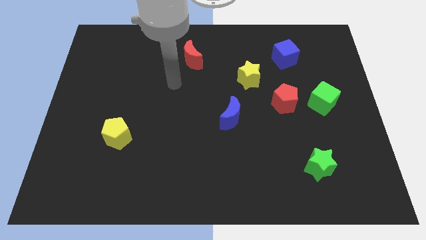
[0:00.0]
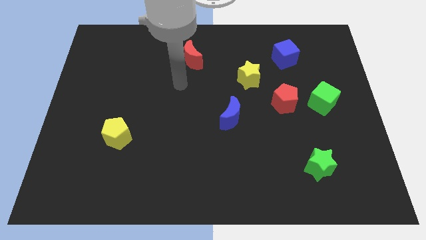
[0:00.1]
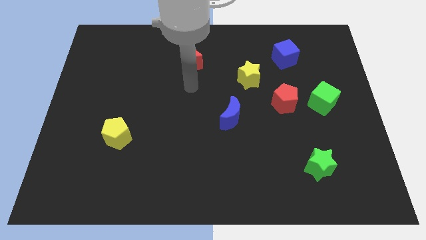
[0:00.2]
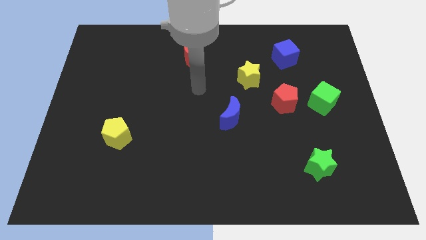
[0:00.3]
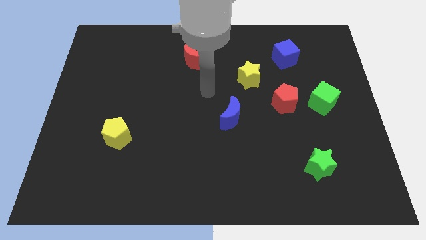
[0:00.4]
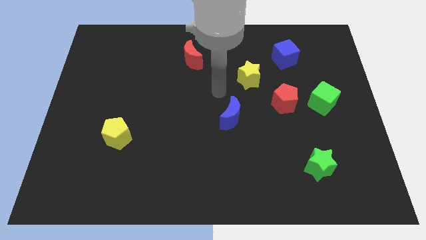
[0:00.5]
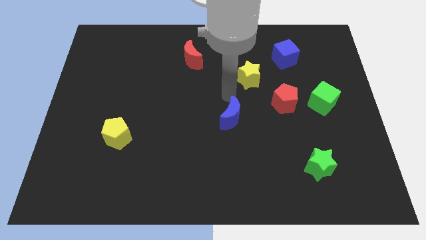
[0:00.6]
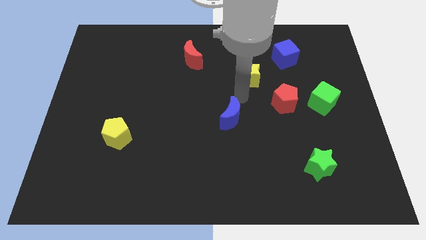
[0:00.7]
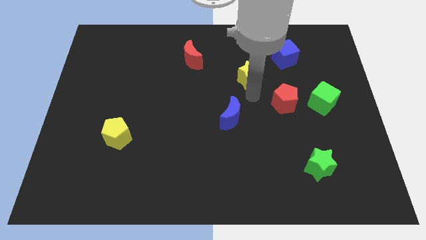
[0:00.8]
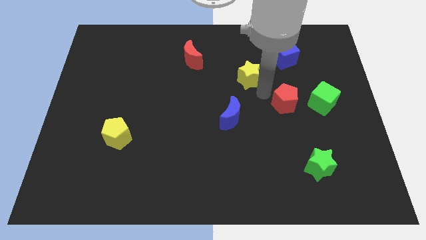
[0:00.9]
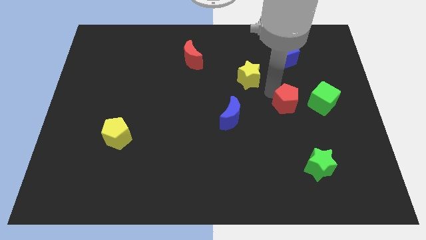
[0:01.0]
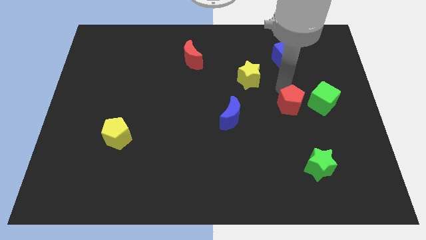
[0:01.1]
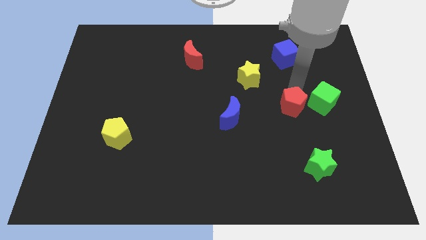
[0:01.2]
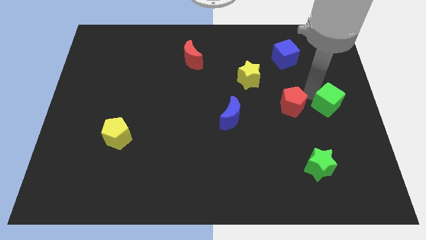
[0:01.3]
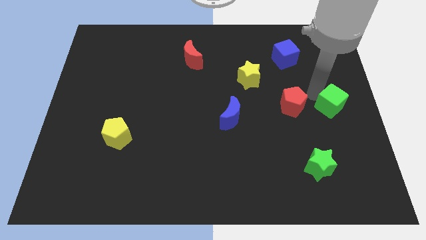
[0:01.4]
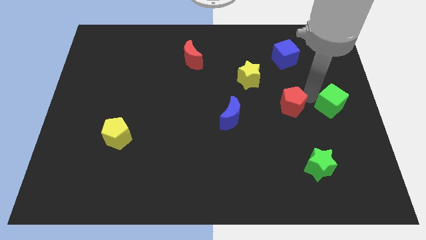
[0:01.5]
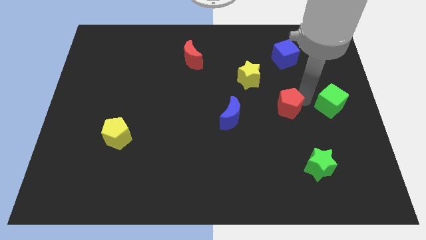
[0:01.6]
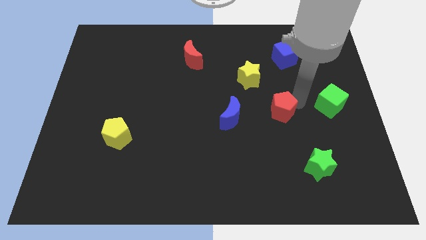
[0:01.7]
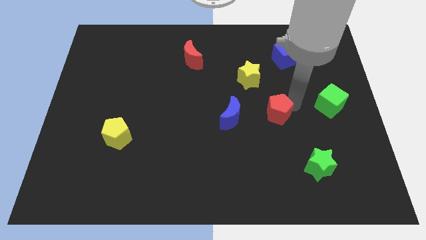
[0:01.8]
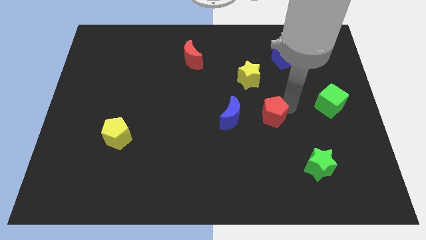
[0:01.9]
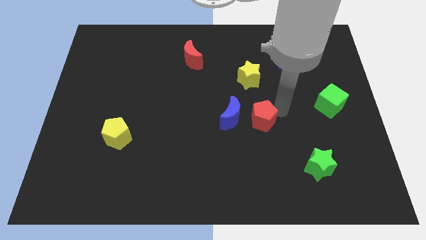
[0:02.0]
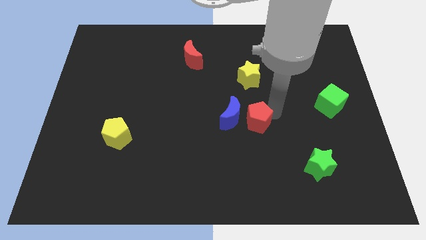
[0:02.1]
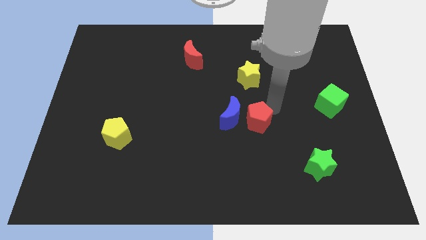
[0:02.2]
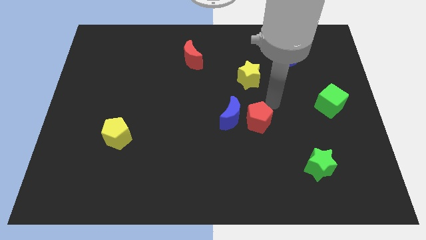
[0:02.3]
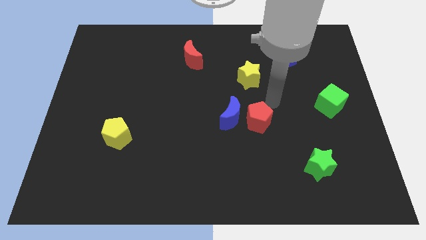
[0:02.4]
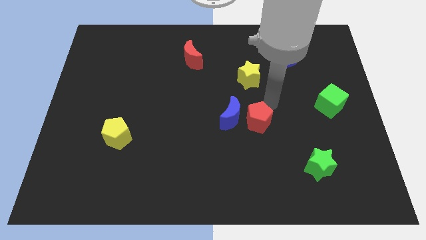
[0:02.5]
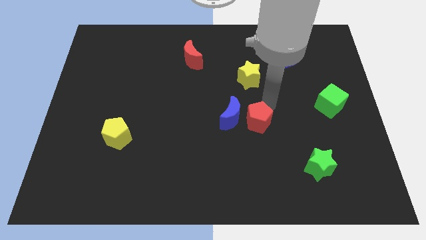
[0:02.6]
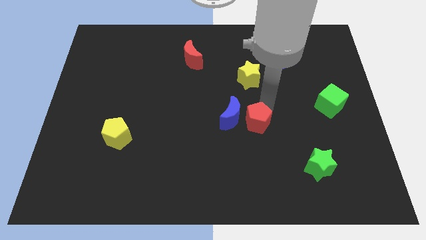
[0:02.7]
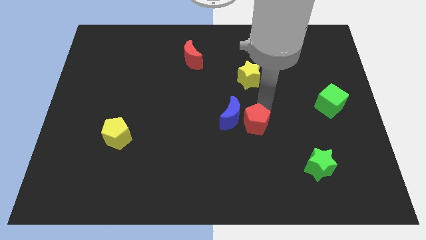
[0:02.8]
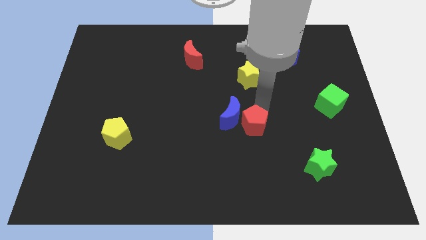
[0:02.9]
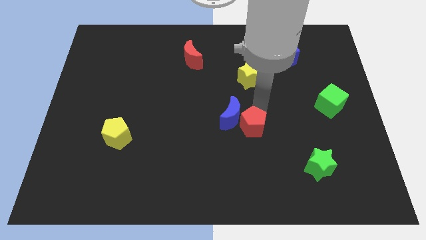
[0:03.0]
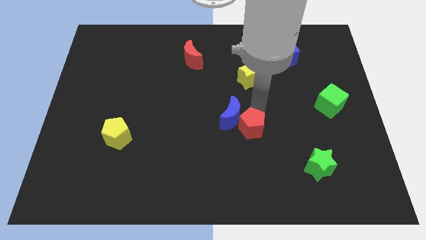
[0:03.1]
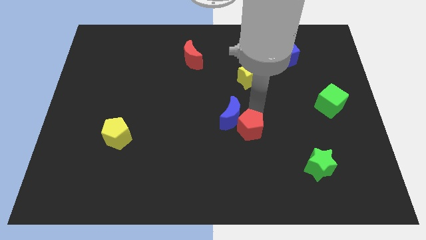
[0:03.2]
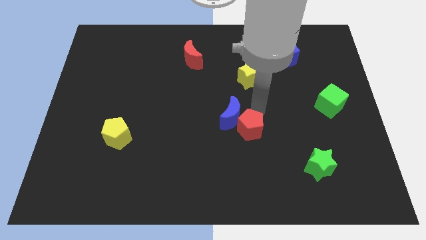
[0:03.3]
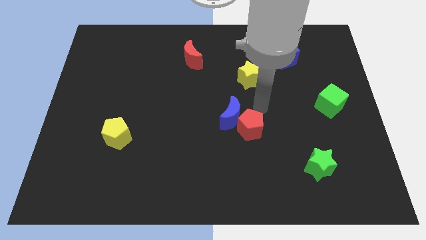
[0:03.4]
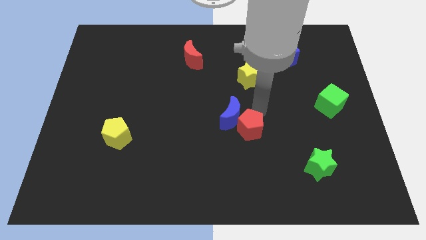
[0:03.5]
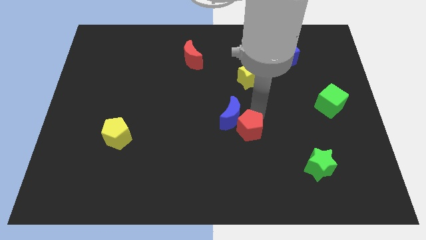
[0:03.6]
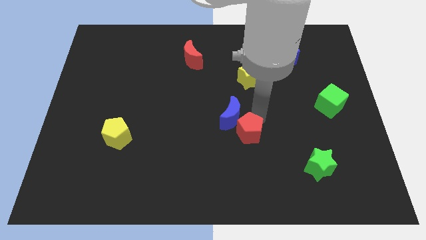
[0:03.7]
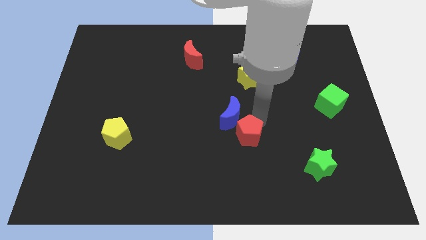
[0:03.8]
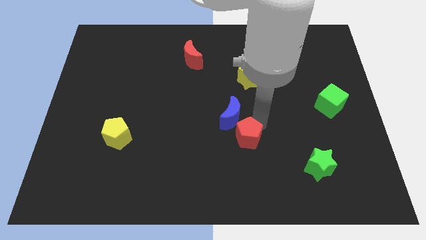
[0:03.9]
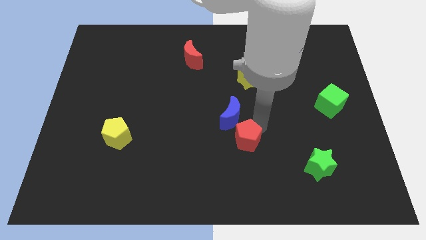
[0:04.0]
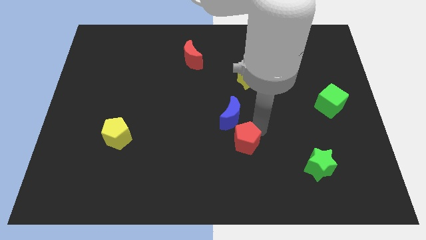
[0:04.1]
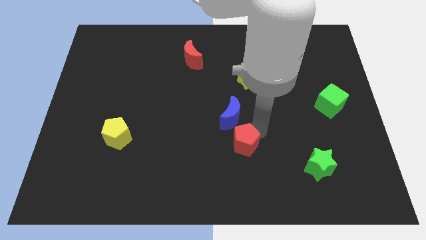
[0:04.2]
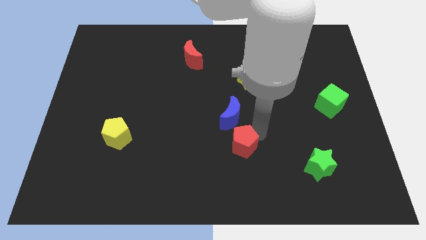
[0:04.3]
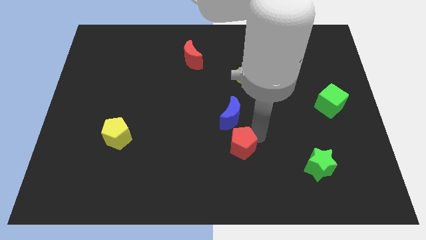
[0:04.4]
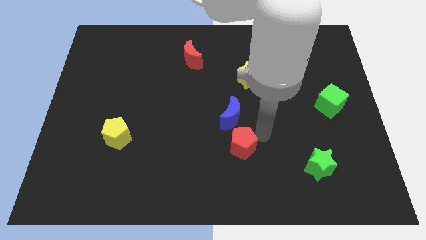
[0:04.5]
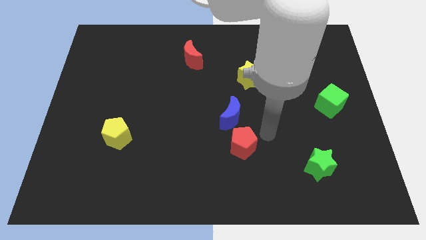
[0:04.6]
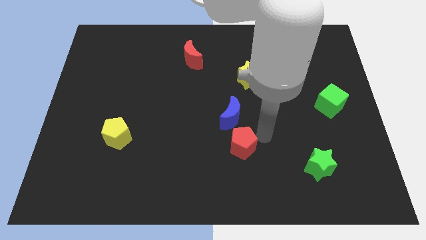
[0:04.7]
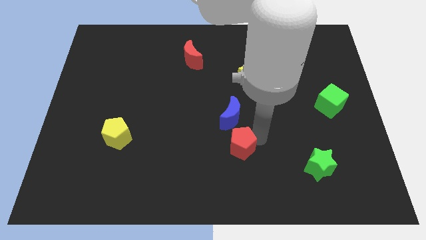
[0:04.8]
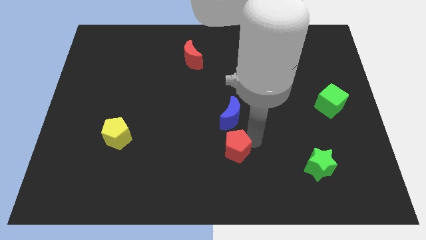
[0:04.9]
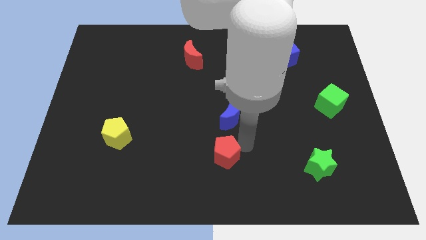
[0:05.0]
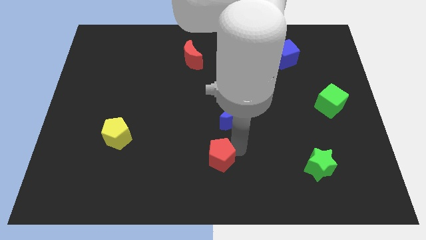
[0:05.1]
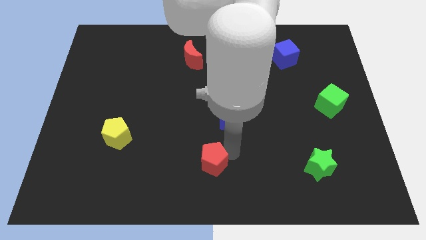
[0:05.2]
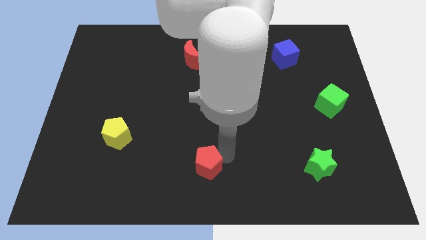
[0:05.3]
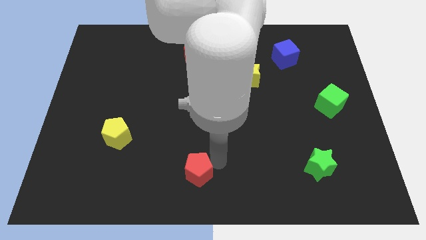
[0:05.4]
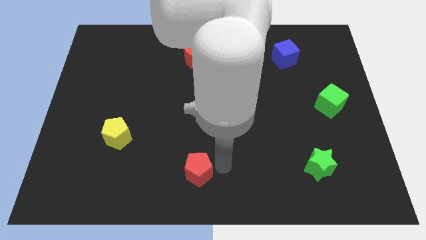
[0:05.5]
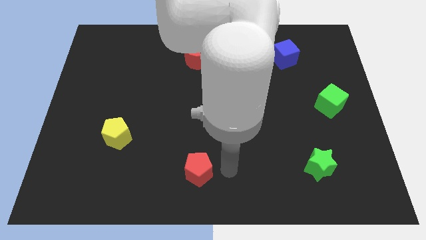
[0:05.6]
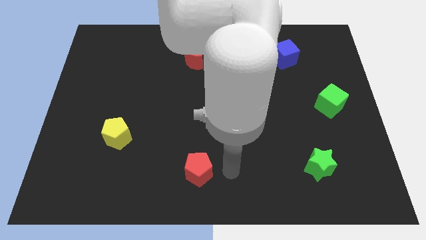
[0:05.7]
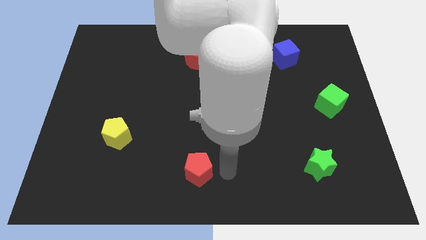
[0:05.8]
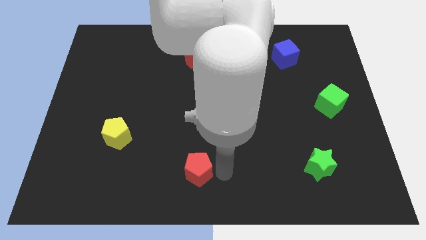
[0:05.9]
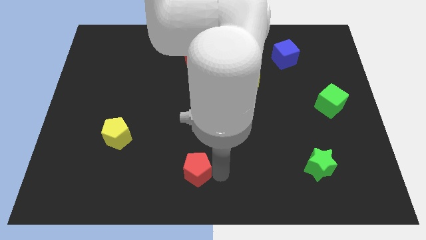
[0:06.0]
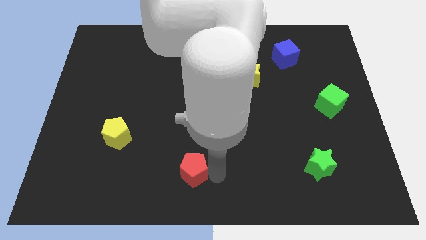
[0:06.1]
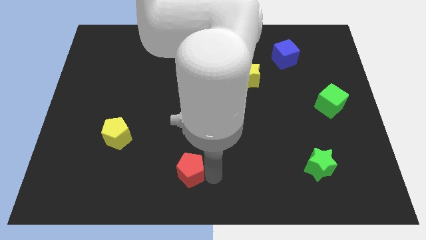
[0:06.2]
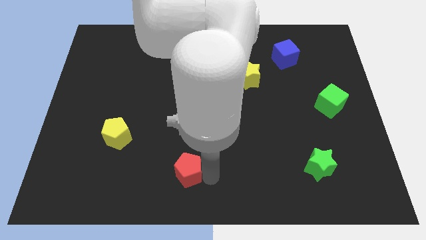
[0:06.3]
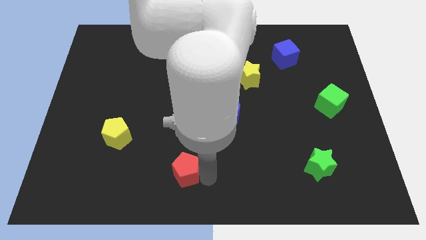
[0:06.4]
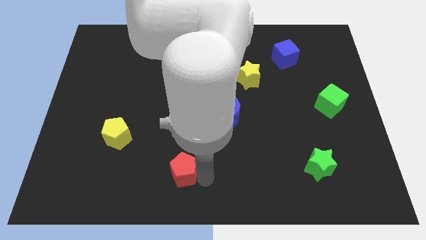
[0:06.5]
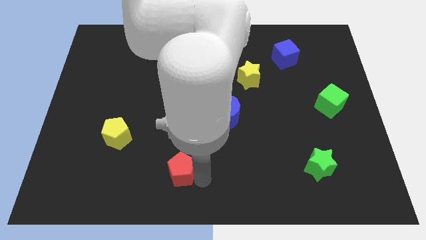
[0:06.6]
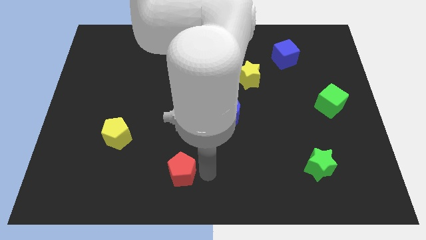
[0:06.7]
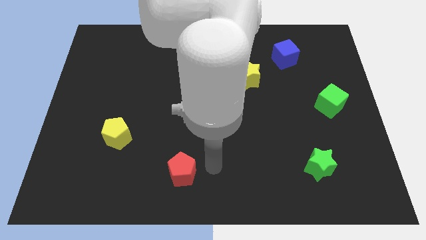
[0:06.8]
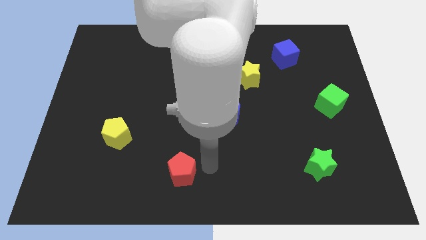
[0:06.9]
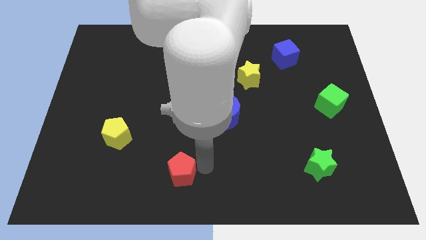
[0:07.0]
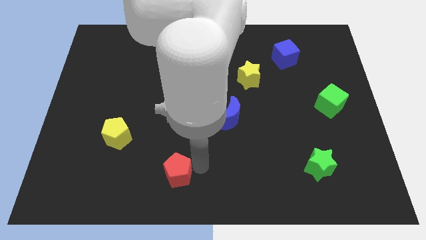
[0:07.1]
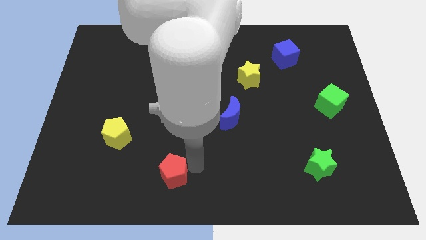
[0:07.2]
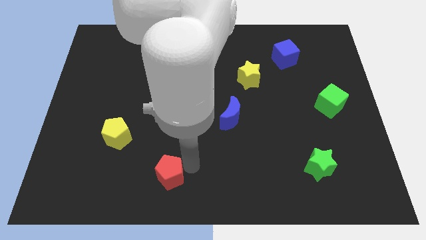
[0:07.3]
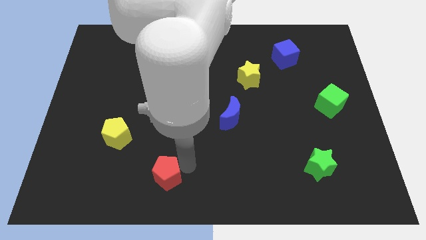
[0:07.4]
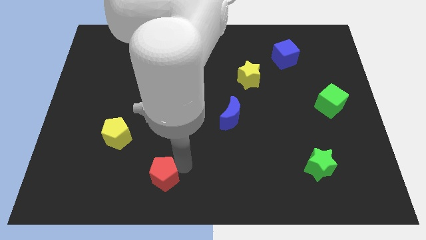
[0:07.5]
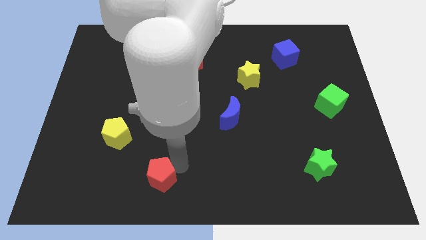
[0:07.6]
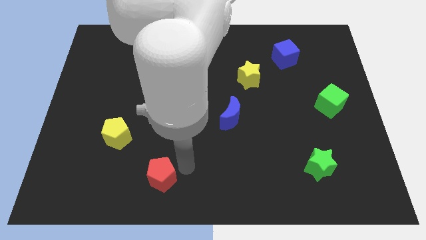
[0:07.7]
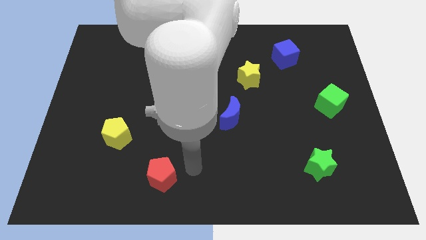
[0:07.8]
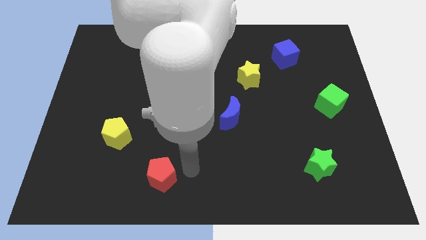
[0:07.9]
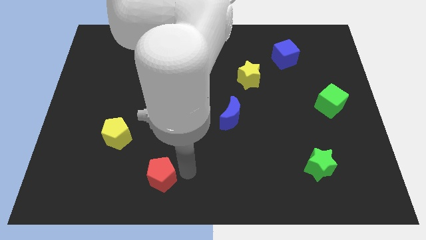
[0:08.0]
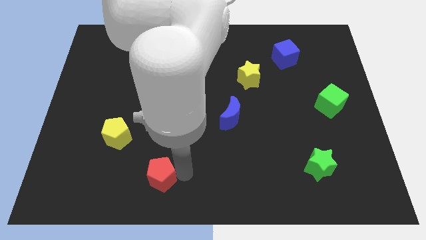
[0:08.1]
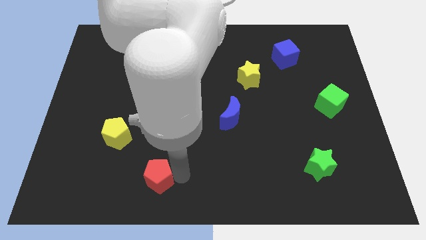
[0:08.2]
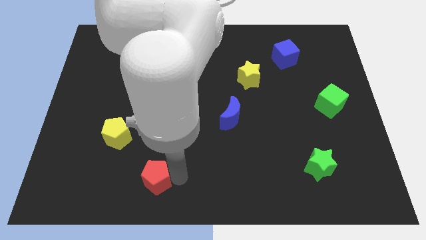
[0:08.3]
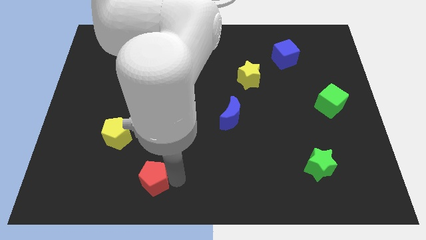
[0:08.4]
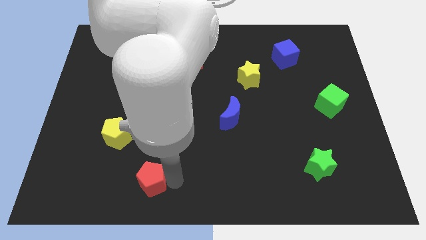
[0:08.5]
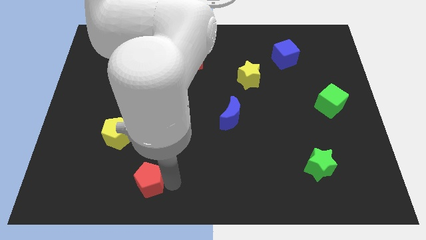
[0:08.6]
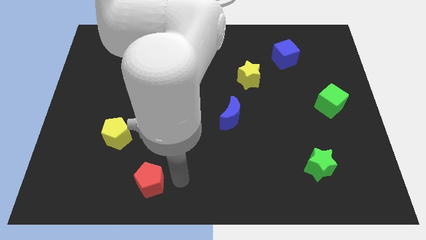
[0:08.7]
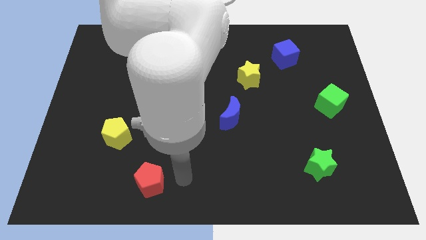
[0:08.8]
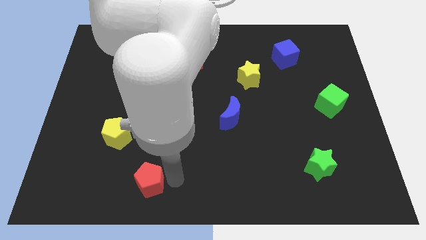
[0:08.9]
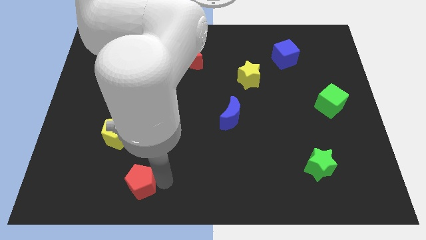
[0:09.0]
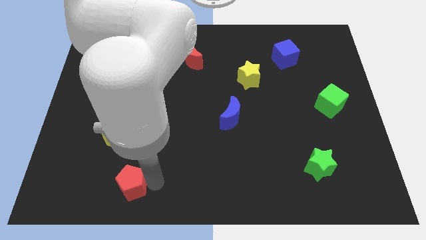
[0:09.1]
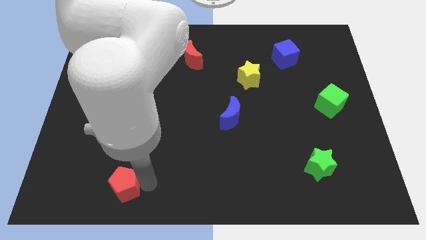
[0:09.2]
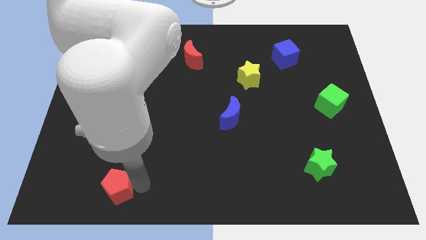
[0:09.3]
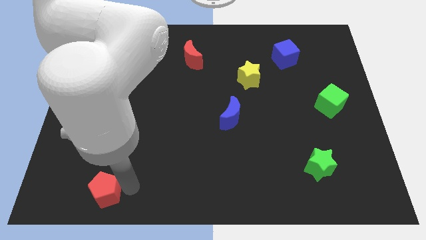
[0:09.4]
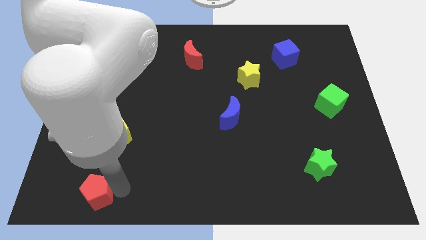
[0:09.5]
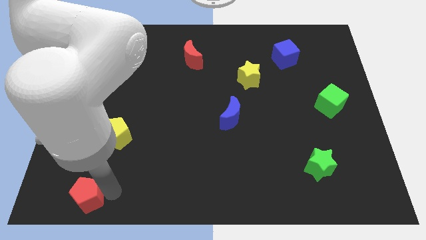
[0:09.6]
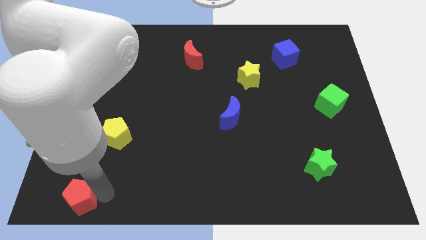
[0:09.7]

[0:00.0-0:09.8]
push the red pentagon to the bottom left
